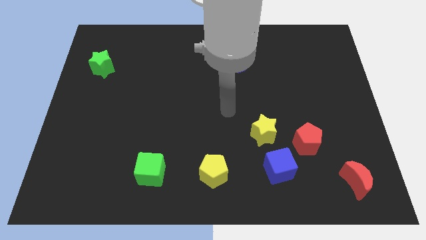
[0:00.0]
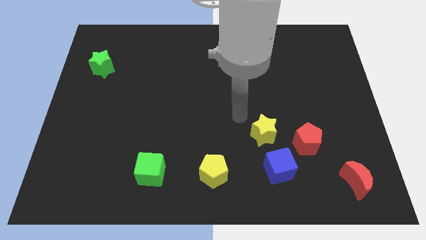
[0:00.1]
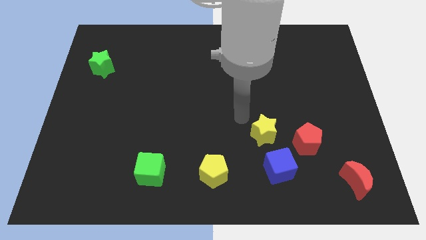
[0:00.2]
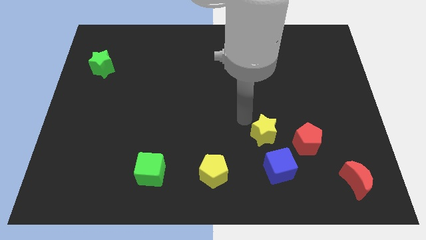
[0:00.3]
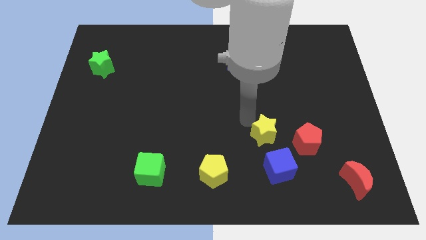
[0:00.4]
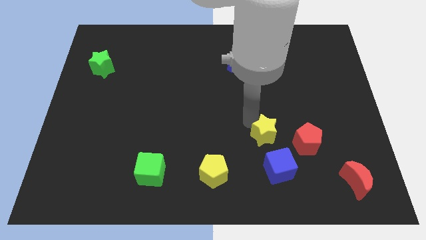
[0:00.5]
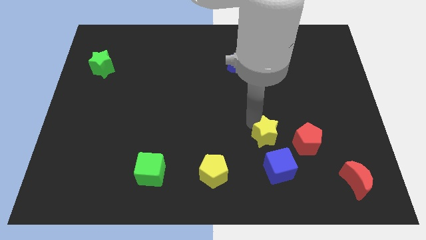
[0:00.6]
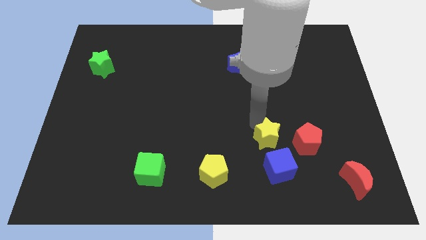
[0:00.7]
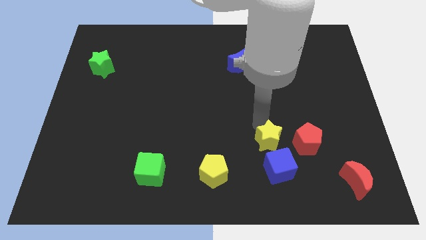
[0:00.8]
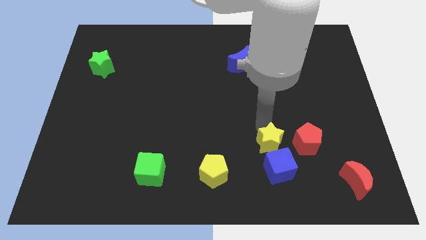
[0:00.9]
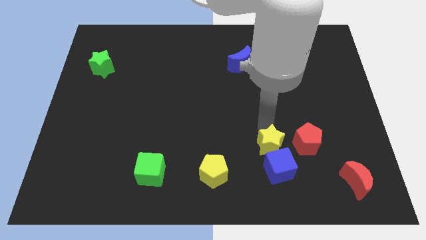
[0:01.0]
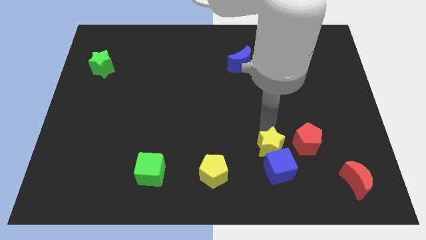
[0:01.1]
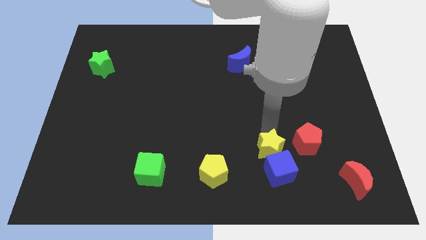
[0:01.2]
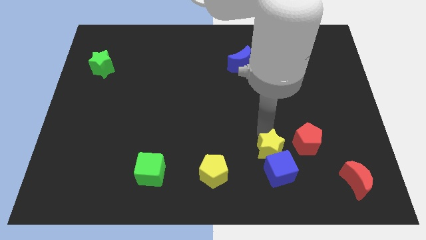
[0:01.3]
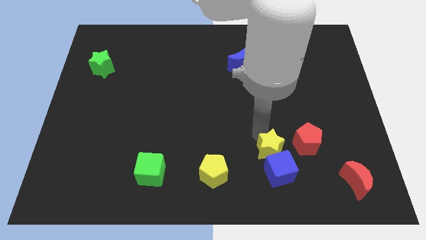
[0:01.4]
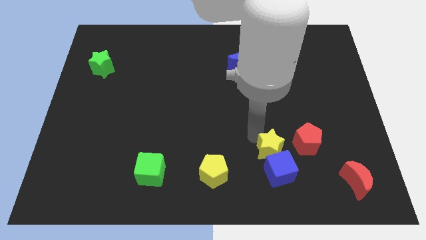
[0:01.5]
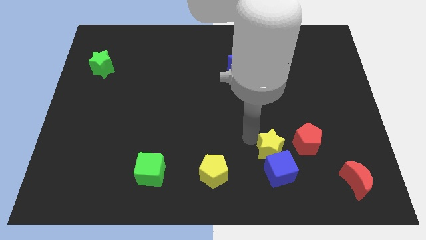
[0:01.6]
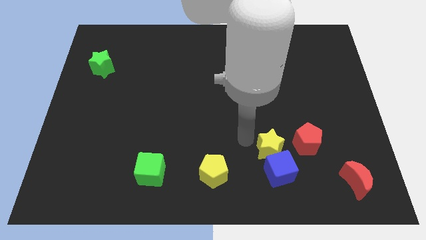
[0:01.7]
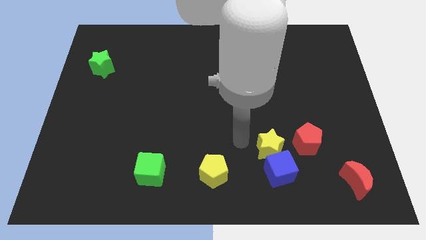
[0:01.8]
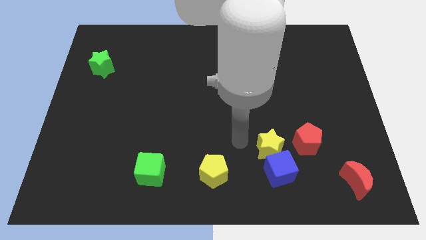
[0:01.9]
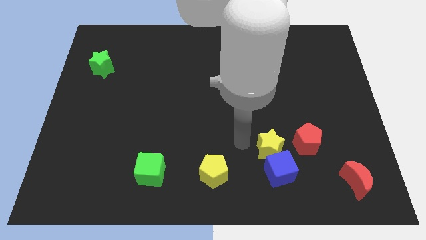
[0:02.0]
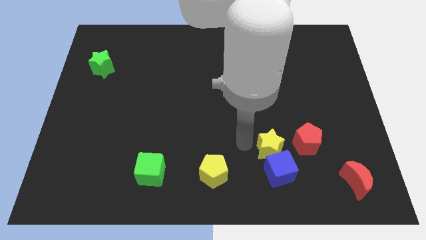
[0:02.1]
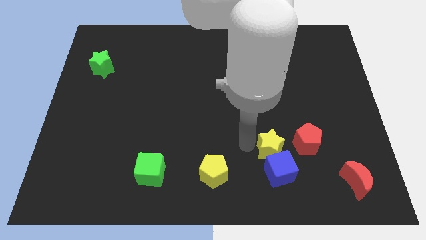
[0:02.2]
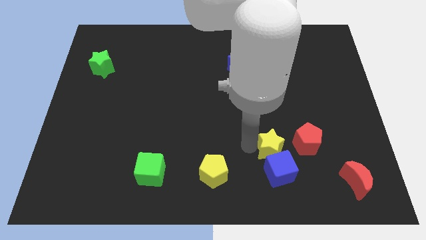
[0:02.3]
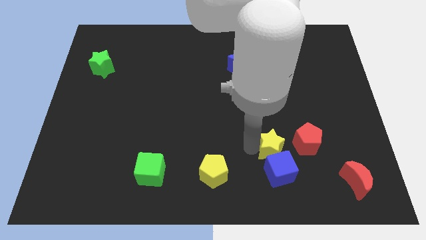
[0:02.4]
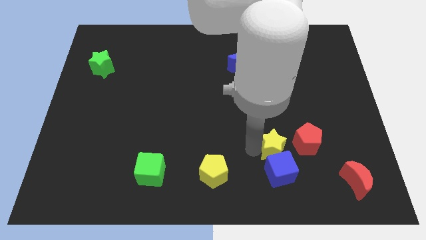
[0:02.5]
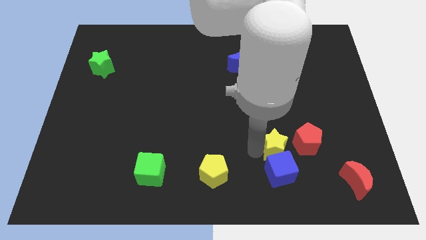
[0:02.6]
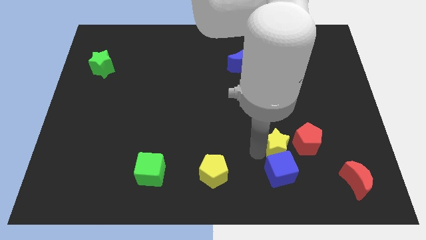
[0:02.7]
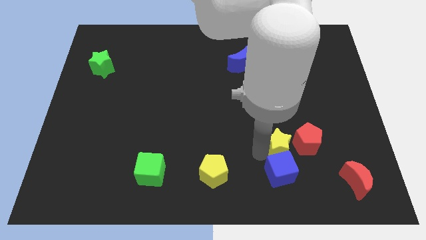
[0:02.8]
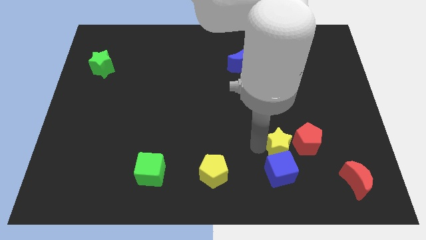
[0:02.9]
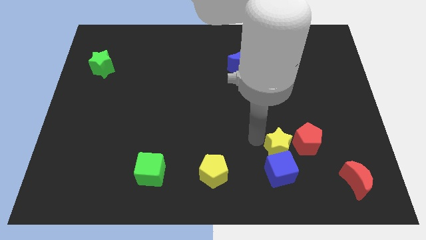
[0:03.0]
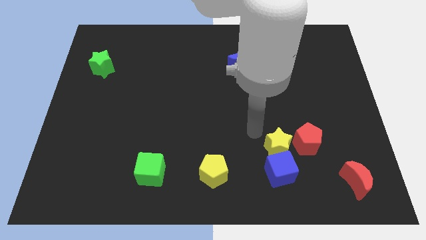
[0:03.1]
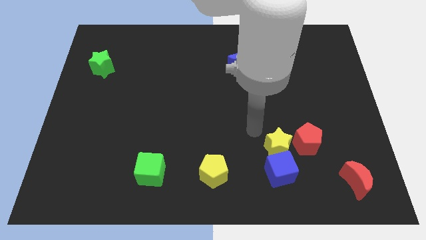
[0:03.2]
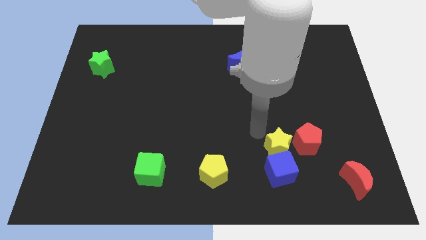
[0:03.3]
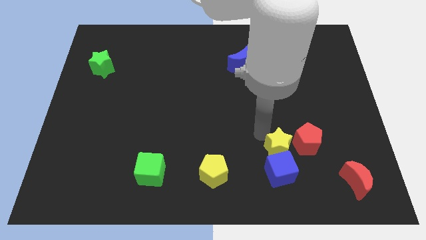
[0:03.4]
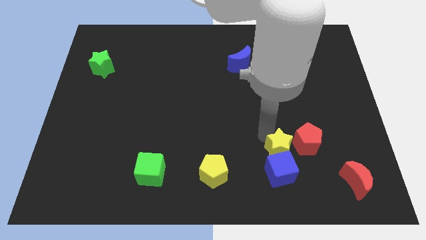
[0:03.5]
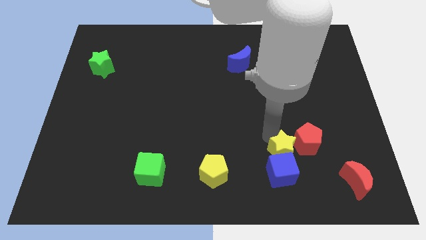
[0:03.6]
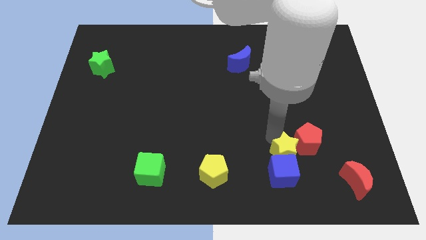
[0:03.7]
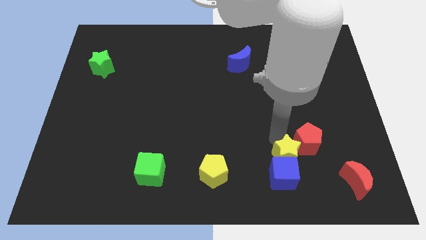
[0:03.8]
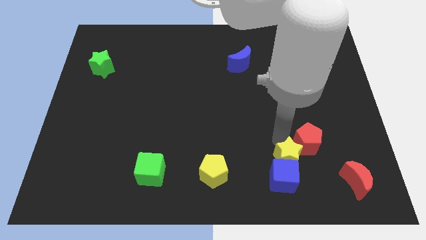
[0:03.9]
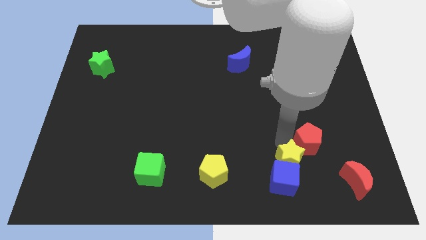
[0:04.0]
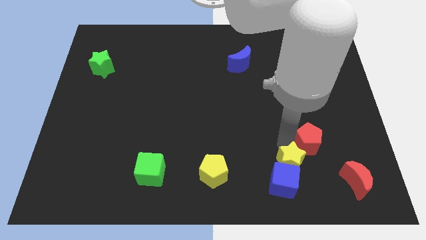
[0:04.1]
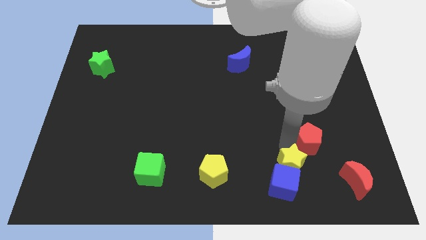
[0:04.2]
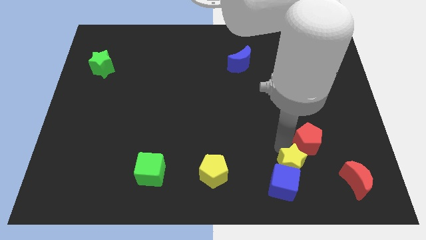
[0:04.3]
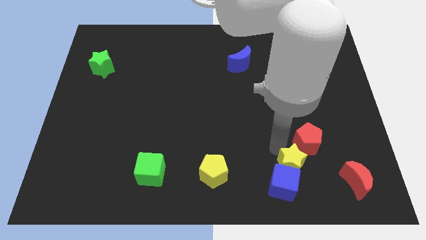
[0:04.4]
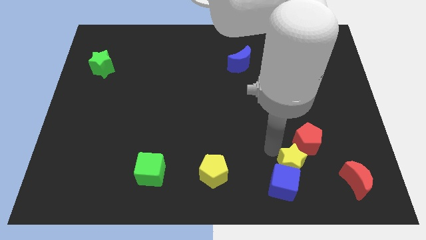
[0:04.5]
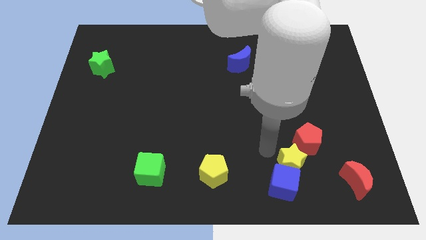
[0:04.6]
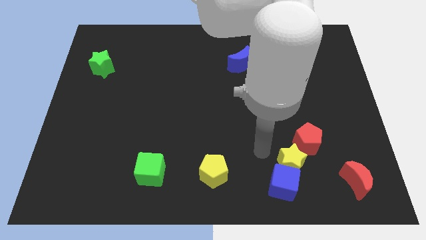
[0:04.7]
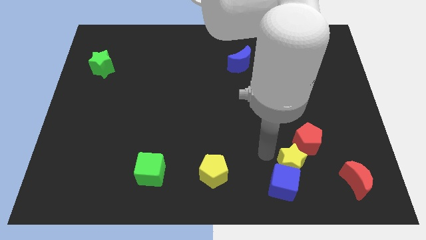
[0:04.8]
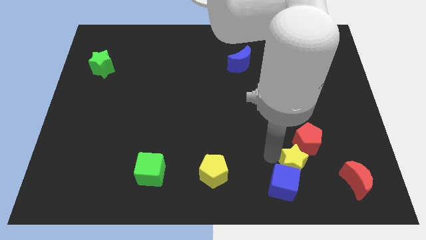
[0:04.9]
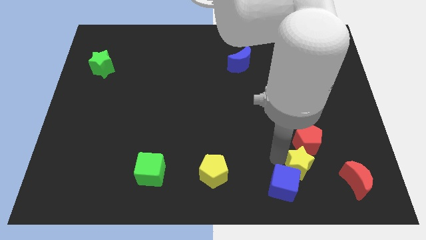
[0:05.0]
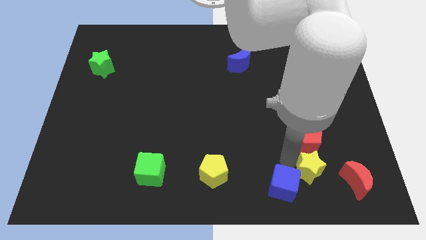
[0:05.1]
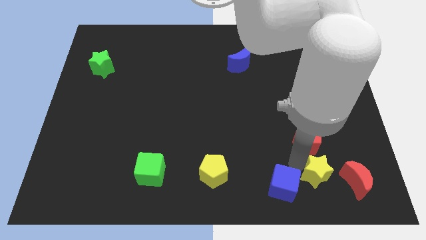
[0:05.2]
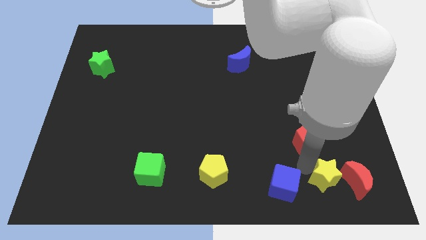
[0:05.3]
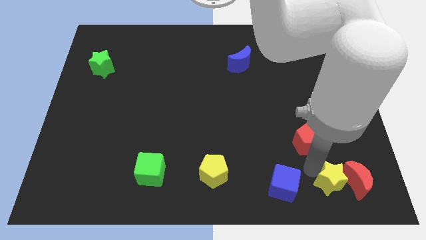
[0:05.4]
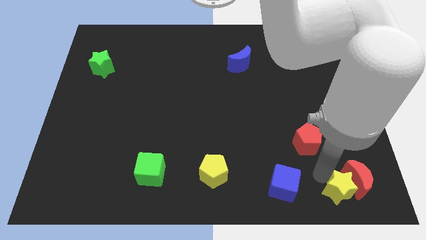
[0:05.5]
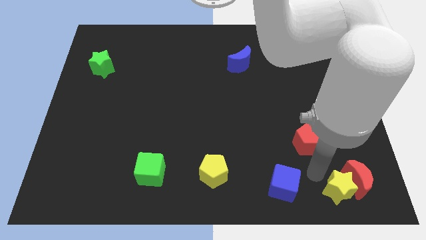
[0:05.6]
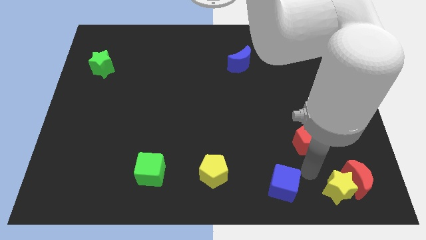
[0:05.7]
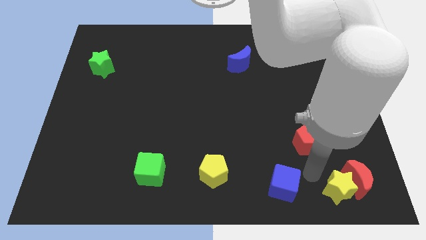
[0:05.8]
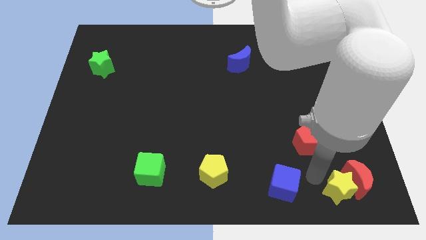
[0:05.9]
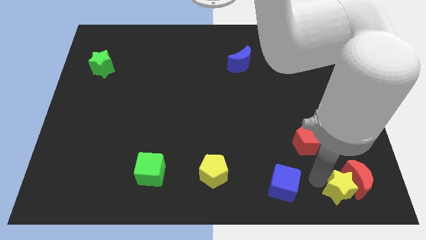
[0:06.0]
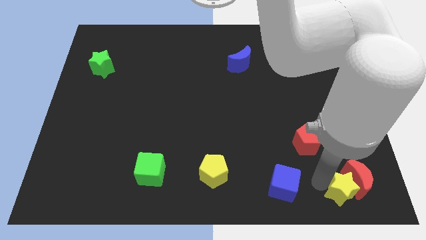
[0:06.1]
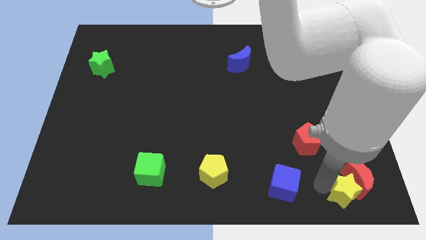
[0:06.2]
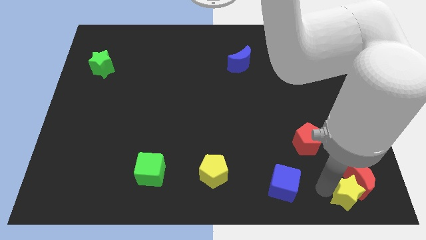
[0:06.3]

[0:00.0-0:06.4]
slide the yellow star to the bottom right corner

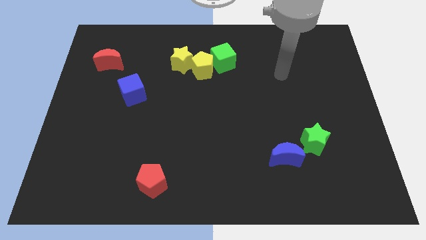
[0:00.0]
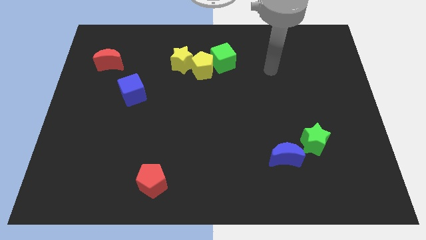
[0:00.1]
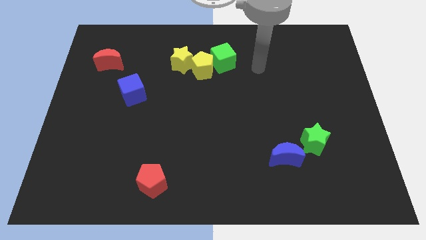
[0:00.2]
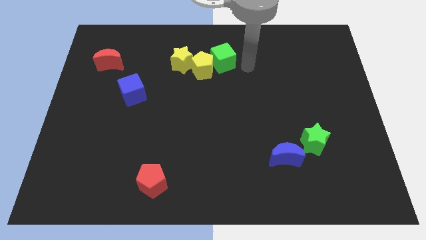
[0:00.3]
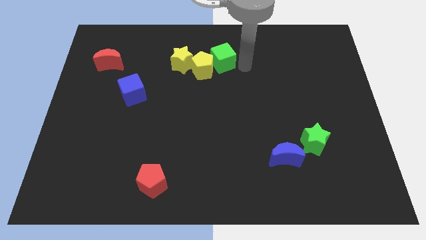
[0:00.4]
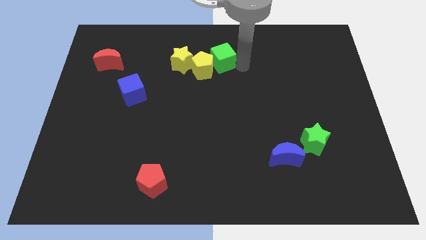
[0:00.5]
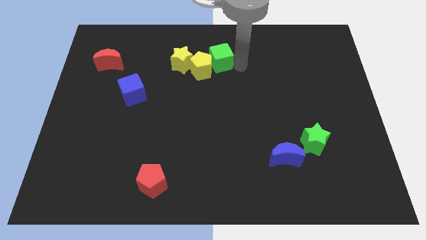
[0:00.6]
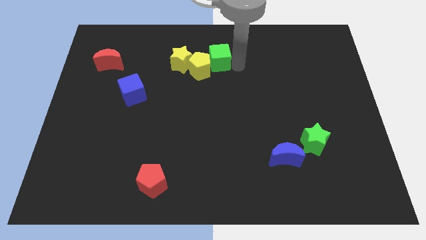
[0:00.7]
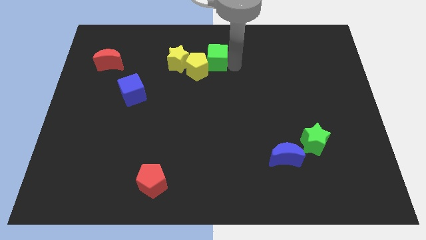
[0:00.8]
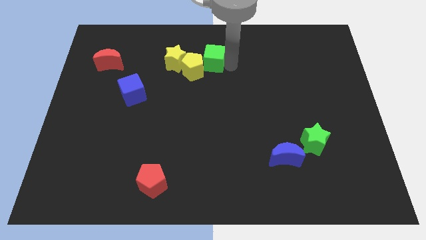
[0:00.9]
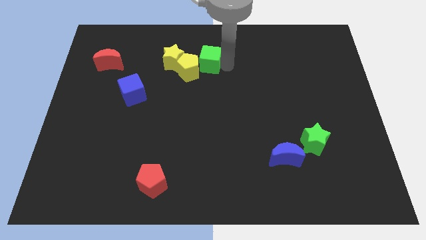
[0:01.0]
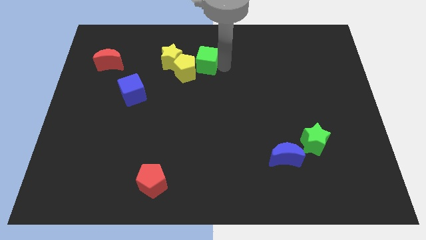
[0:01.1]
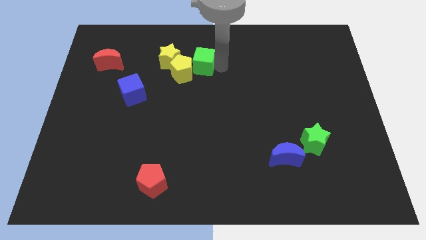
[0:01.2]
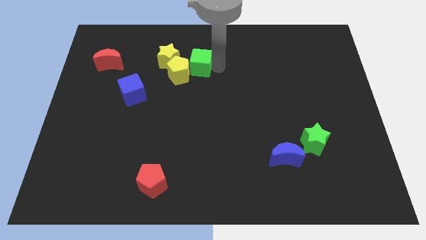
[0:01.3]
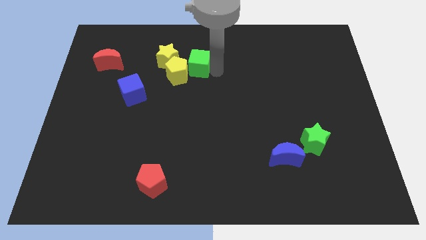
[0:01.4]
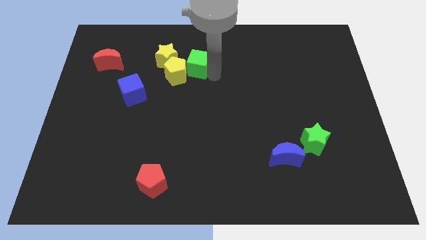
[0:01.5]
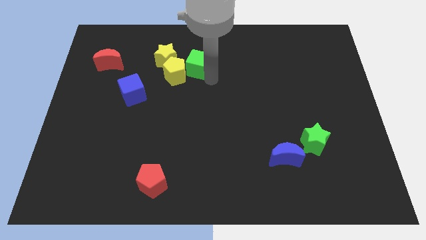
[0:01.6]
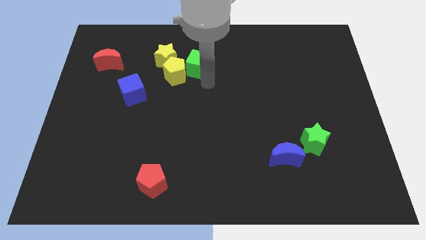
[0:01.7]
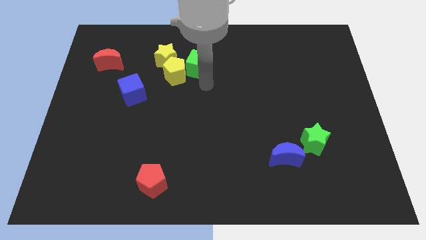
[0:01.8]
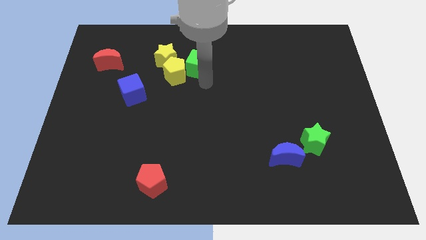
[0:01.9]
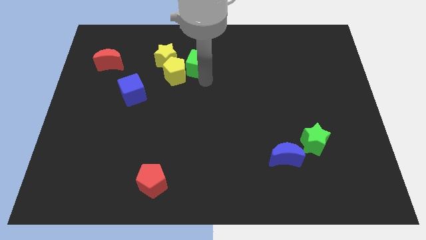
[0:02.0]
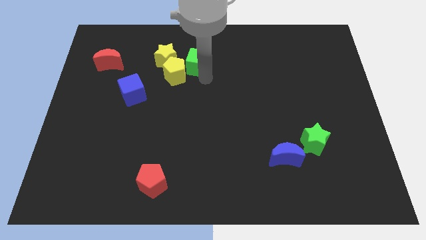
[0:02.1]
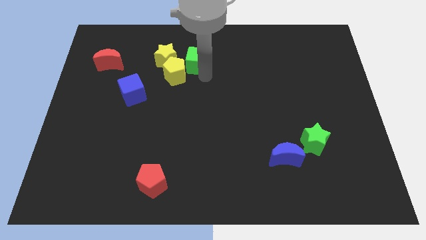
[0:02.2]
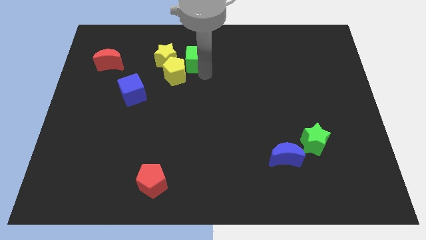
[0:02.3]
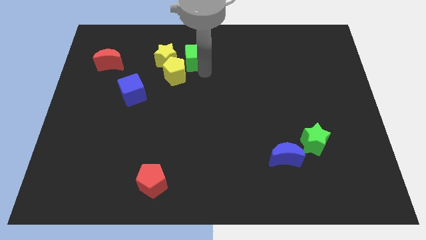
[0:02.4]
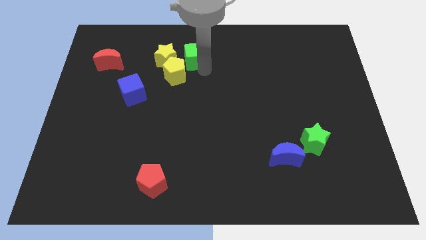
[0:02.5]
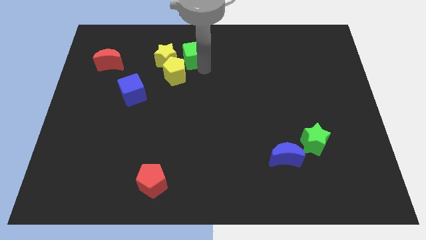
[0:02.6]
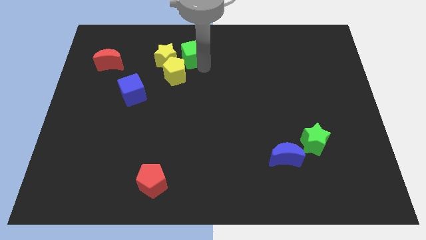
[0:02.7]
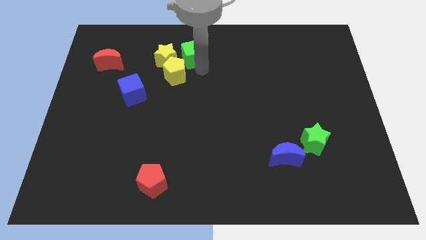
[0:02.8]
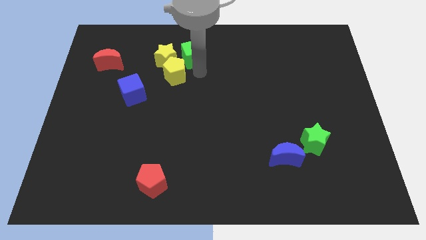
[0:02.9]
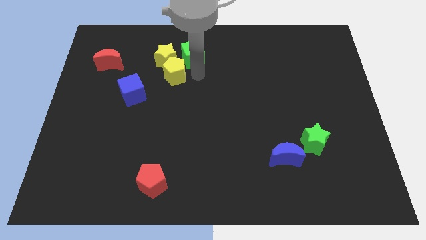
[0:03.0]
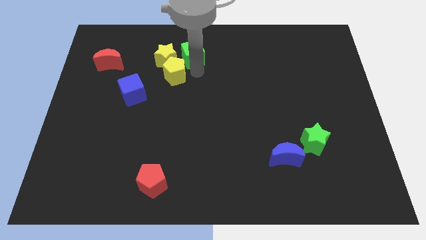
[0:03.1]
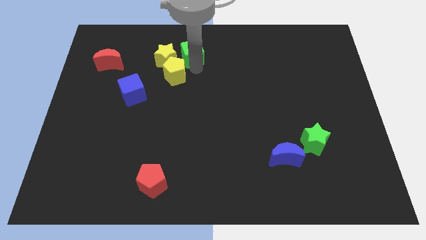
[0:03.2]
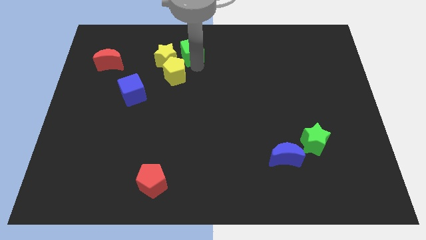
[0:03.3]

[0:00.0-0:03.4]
slide the green cube to the top
